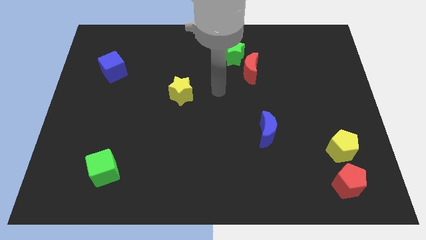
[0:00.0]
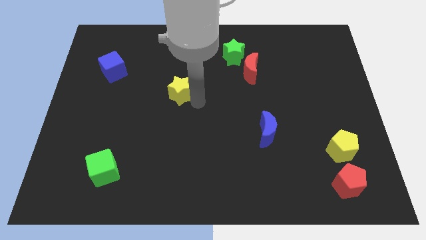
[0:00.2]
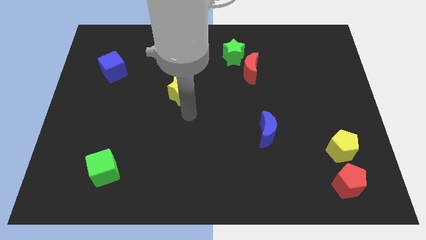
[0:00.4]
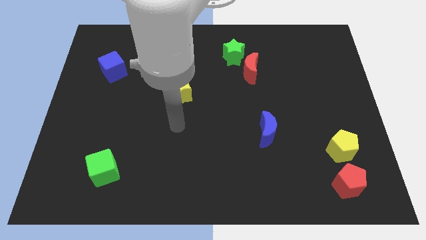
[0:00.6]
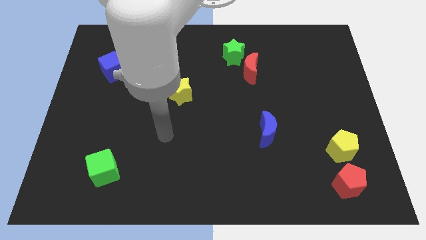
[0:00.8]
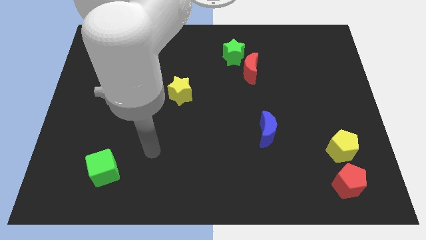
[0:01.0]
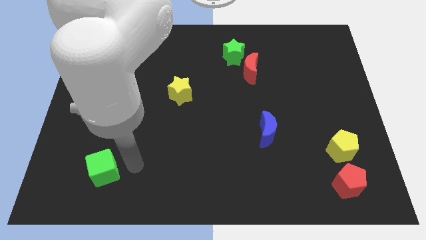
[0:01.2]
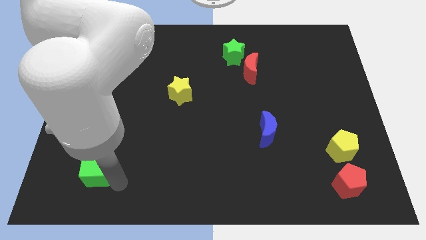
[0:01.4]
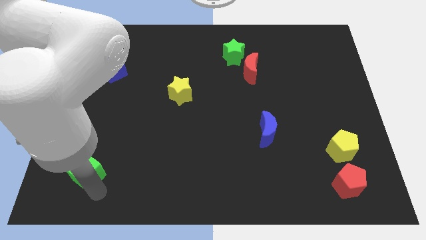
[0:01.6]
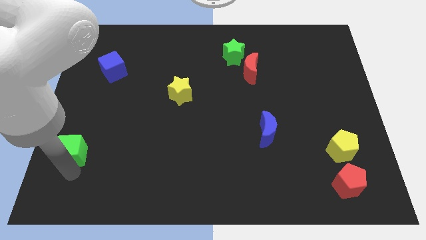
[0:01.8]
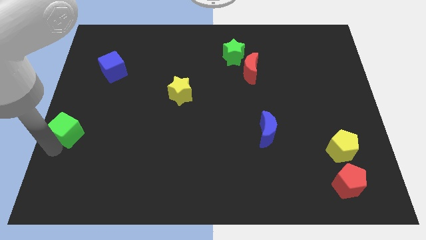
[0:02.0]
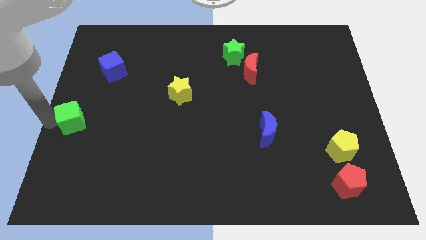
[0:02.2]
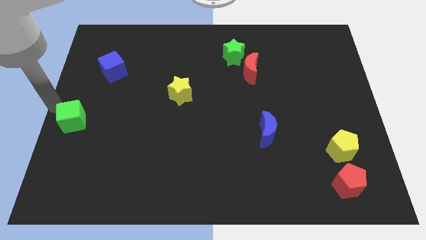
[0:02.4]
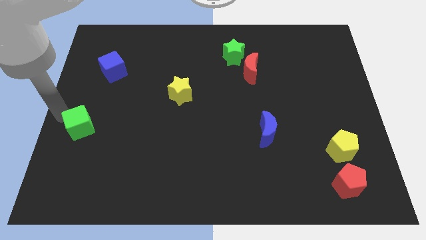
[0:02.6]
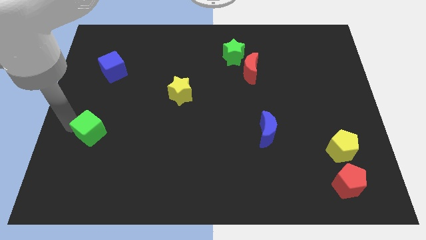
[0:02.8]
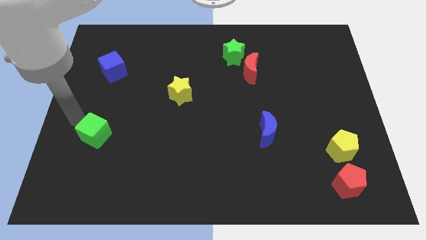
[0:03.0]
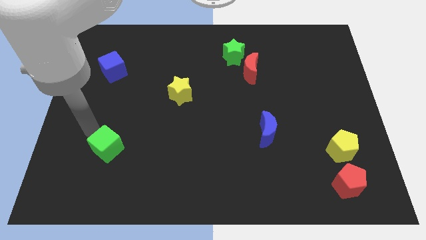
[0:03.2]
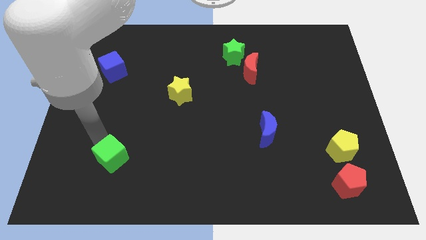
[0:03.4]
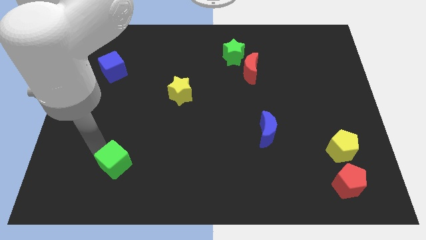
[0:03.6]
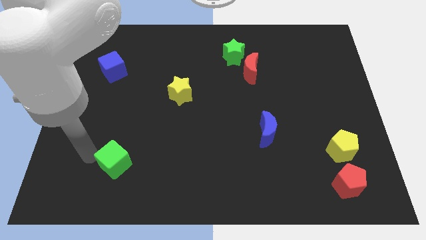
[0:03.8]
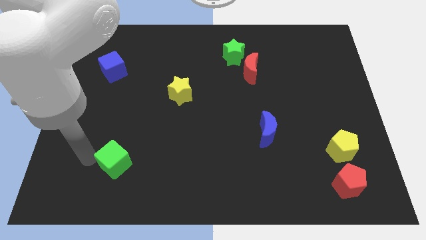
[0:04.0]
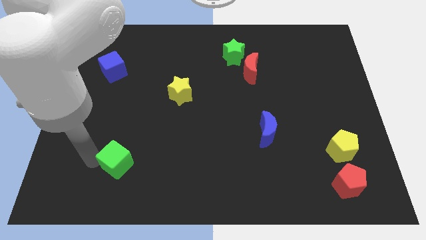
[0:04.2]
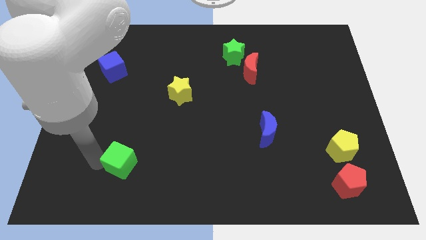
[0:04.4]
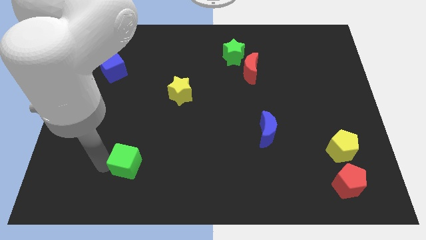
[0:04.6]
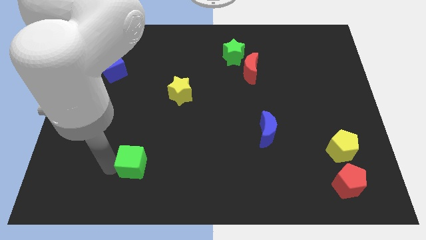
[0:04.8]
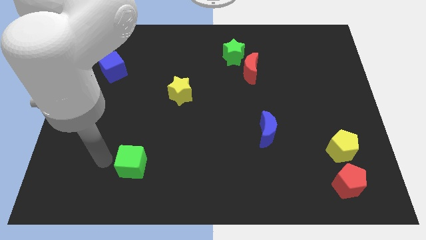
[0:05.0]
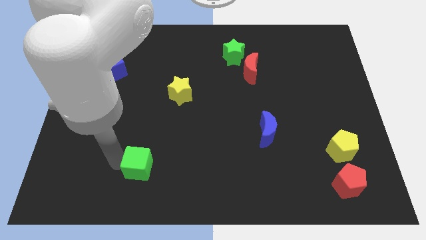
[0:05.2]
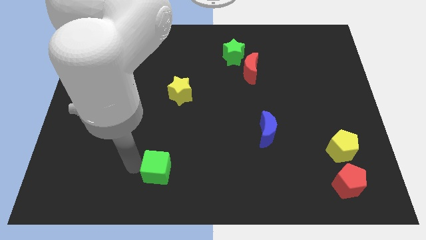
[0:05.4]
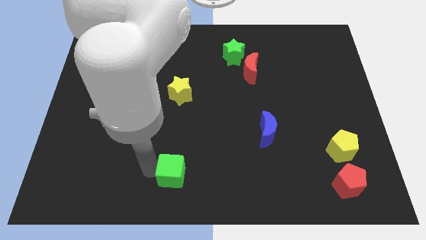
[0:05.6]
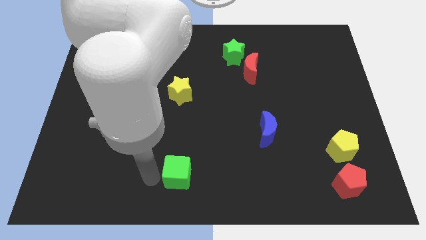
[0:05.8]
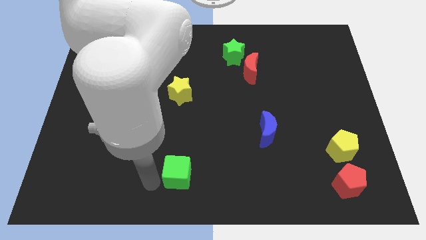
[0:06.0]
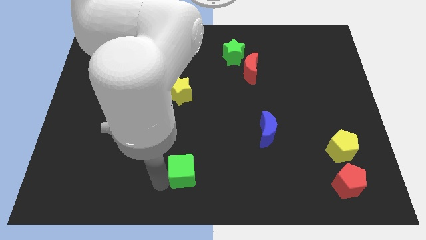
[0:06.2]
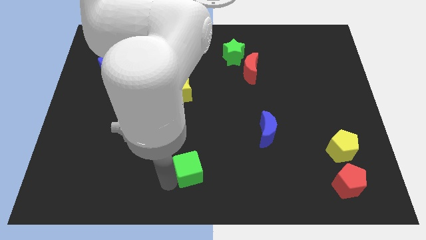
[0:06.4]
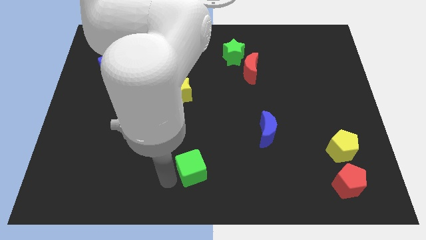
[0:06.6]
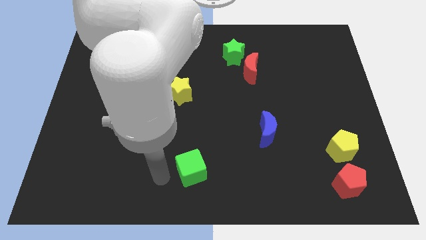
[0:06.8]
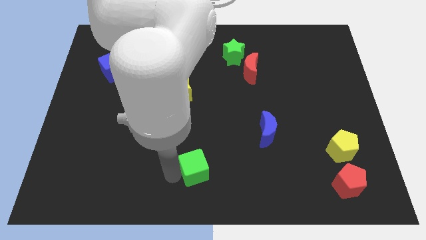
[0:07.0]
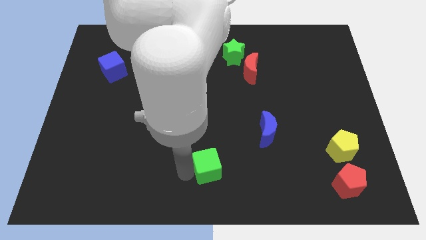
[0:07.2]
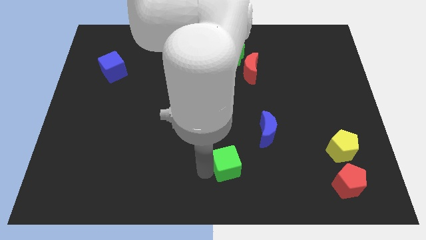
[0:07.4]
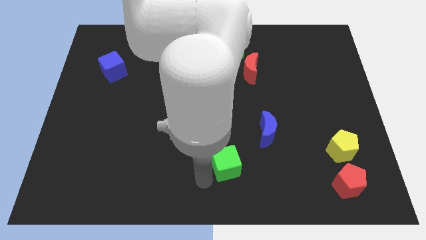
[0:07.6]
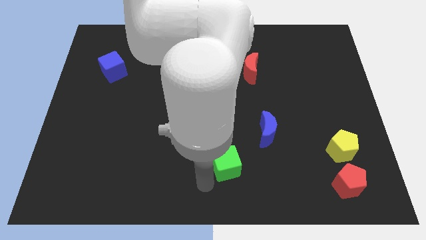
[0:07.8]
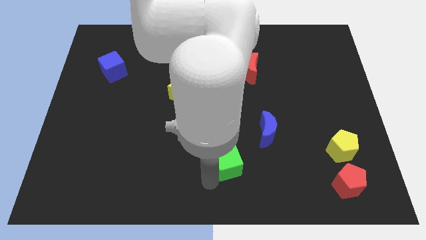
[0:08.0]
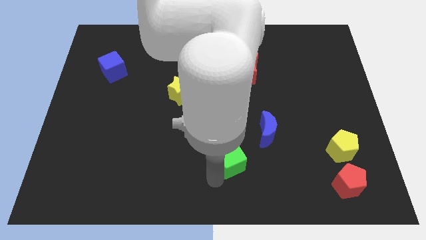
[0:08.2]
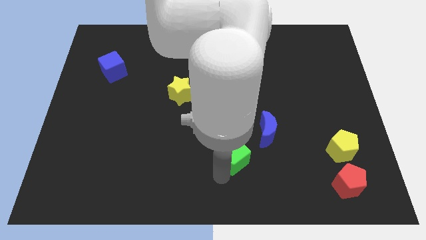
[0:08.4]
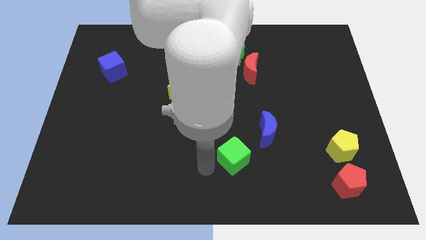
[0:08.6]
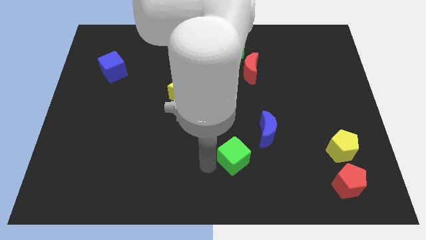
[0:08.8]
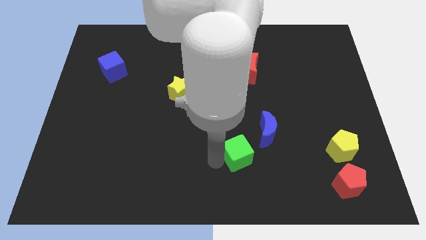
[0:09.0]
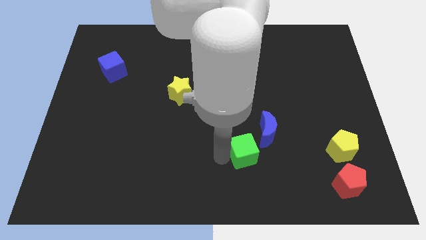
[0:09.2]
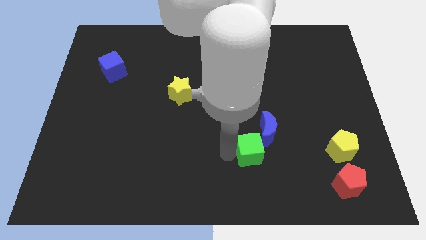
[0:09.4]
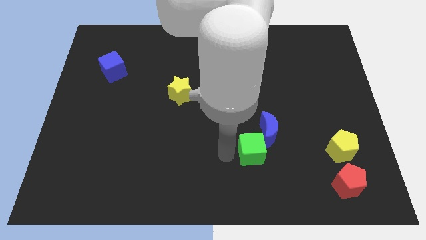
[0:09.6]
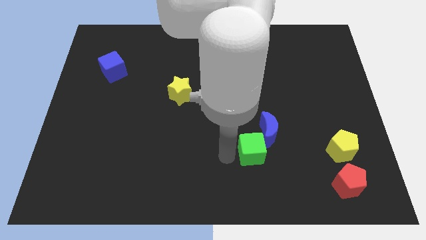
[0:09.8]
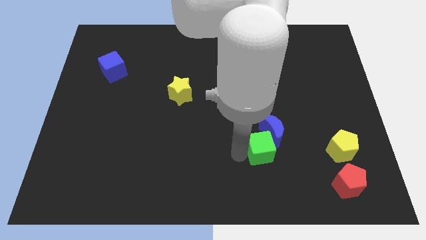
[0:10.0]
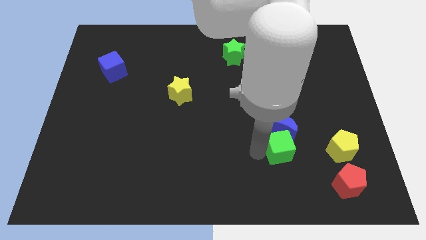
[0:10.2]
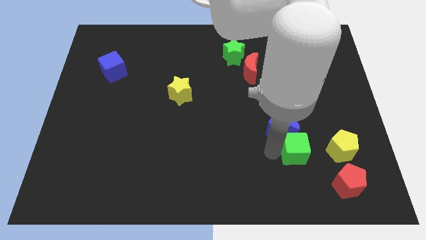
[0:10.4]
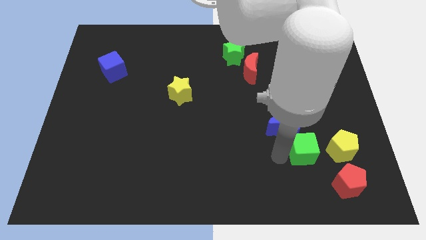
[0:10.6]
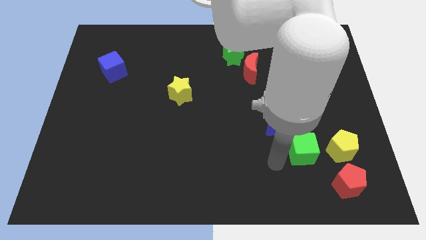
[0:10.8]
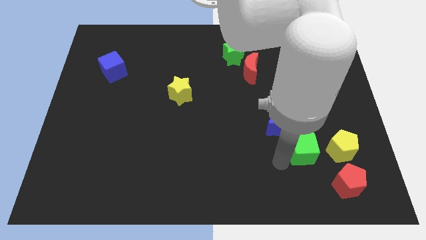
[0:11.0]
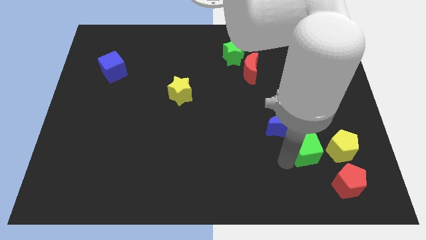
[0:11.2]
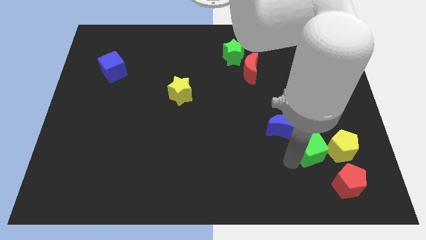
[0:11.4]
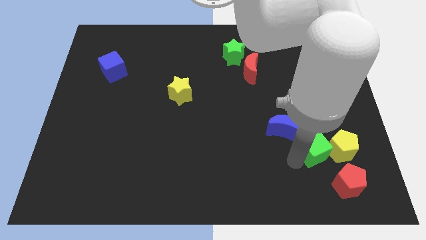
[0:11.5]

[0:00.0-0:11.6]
put the green cube towards the yellow pentagon

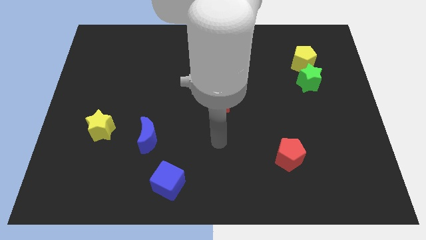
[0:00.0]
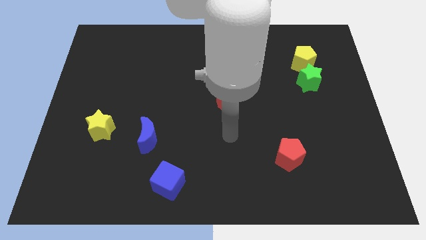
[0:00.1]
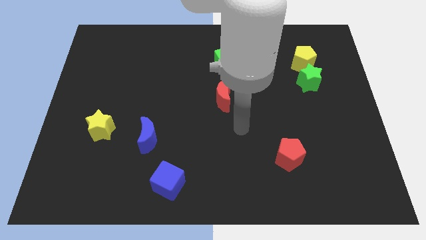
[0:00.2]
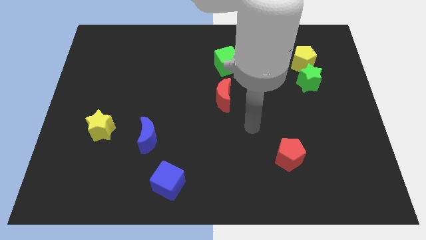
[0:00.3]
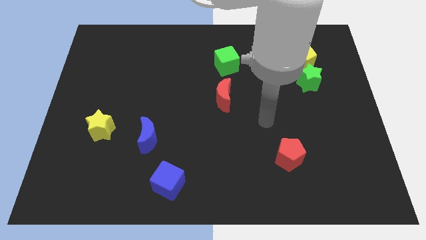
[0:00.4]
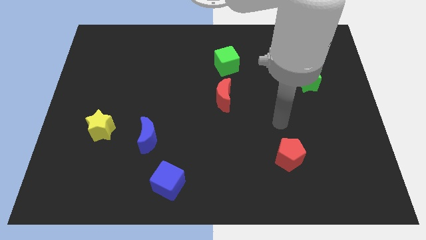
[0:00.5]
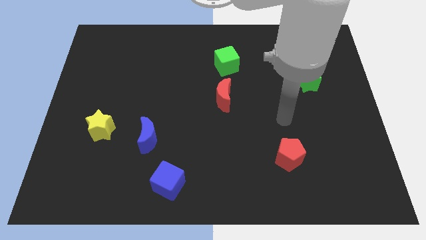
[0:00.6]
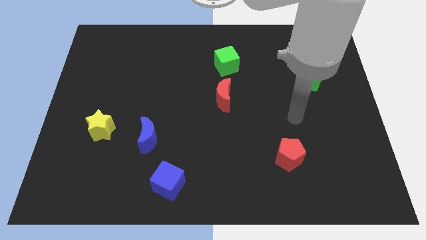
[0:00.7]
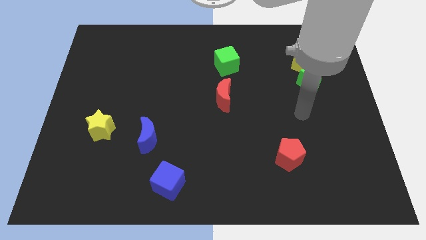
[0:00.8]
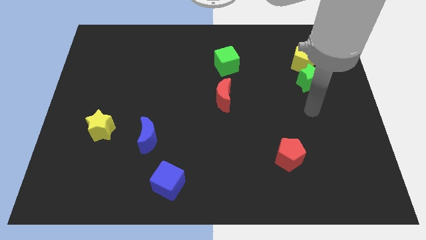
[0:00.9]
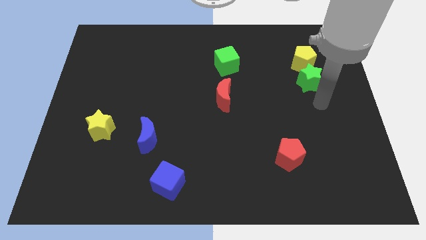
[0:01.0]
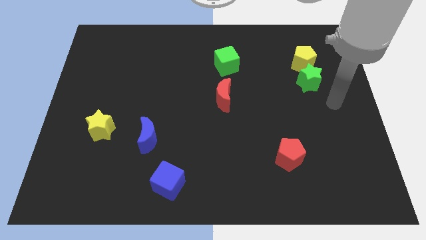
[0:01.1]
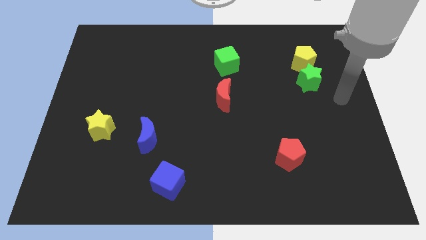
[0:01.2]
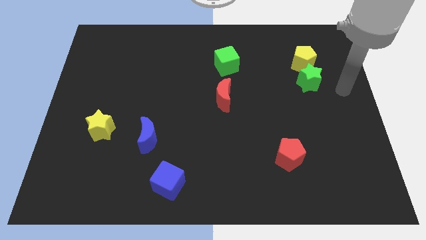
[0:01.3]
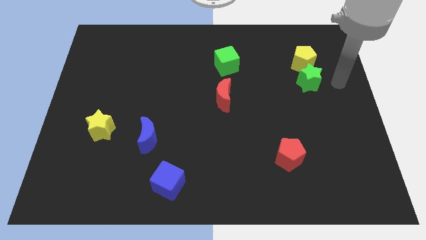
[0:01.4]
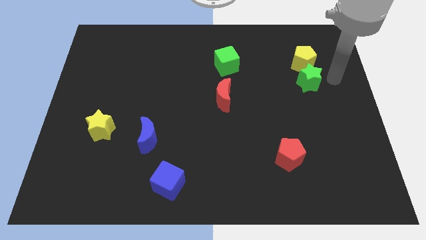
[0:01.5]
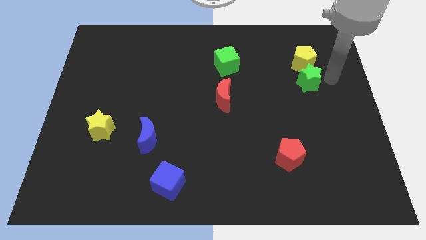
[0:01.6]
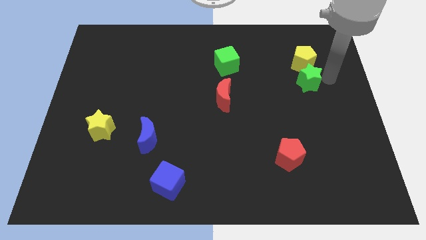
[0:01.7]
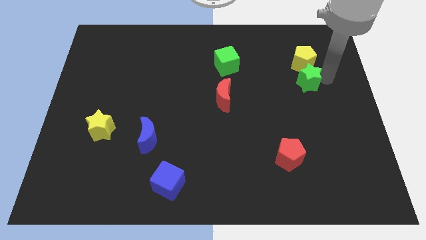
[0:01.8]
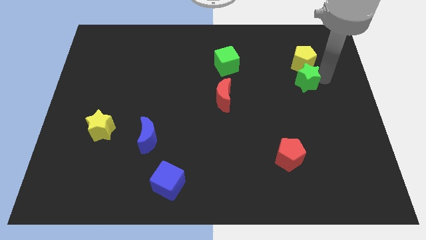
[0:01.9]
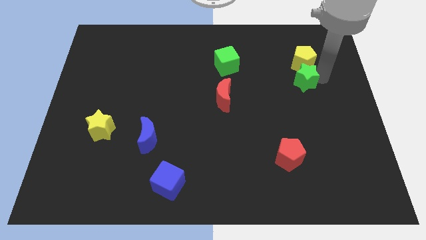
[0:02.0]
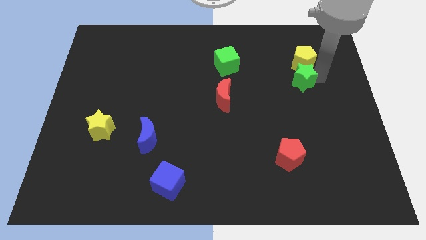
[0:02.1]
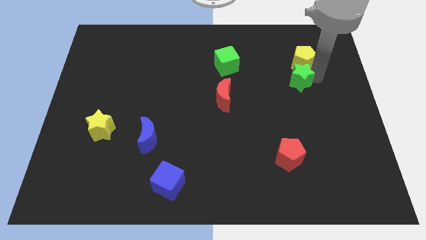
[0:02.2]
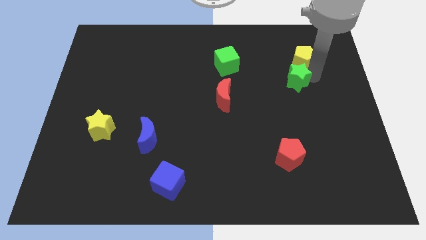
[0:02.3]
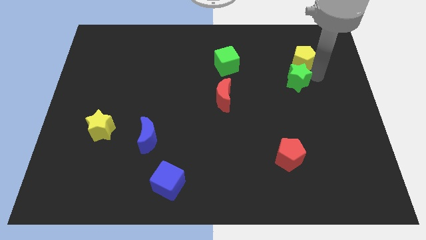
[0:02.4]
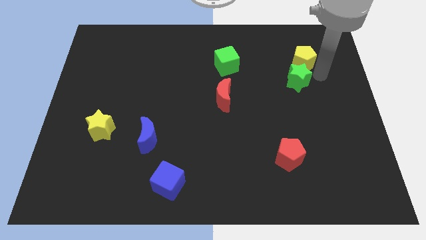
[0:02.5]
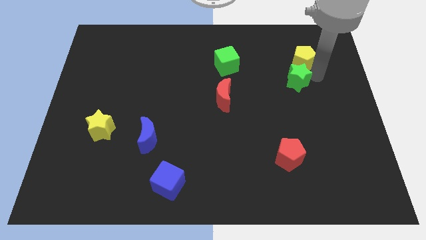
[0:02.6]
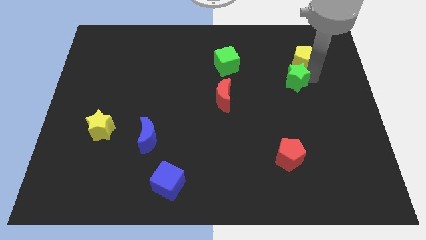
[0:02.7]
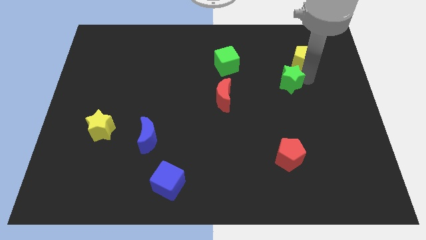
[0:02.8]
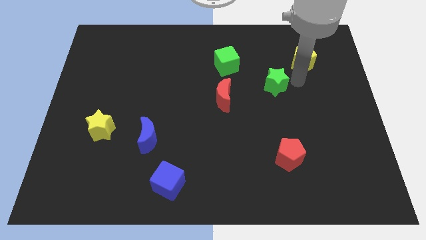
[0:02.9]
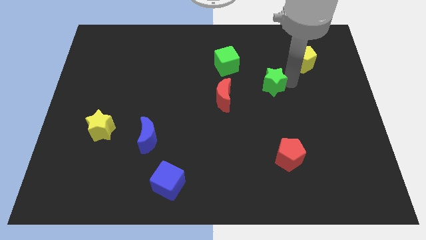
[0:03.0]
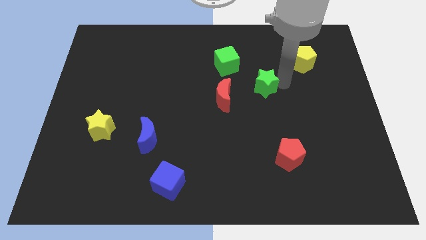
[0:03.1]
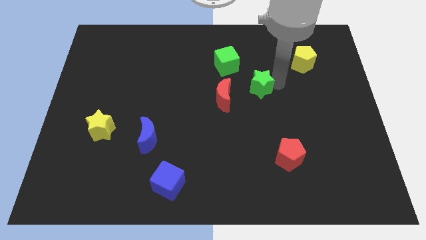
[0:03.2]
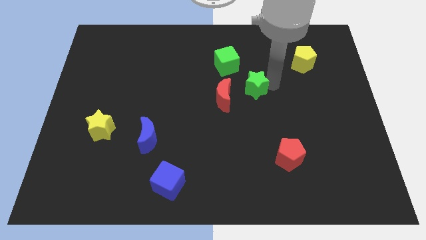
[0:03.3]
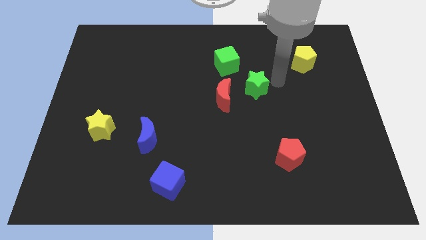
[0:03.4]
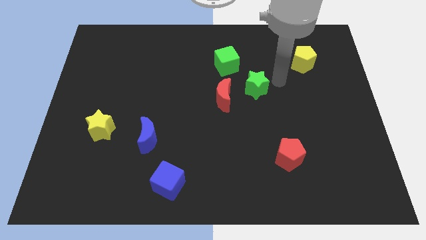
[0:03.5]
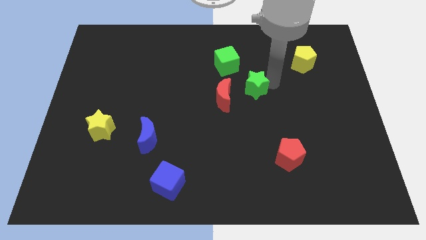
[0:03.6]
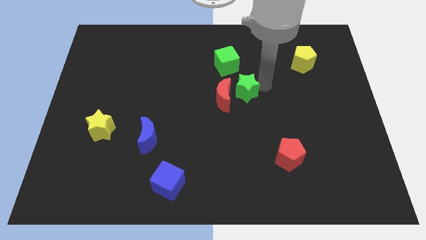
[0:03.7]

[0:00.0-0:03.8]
move the green star to the red moon
